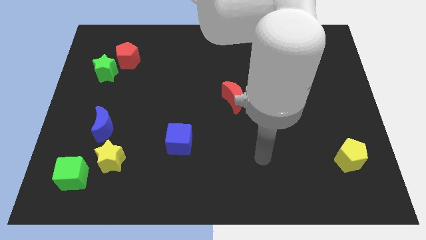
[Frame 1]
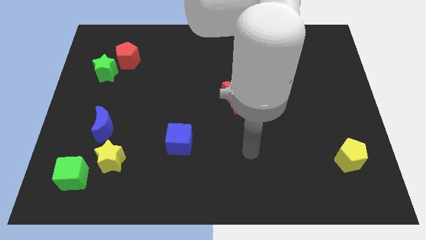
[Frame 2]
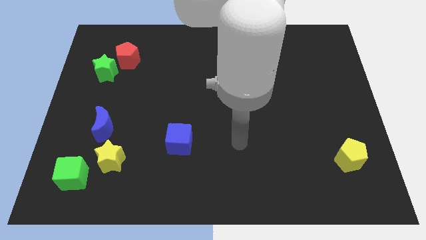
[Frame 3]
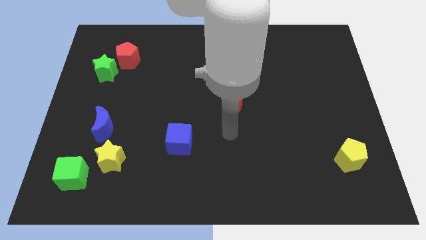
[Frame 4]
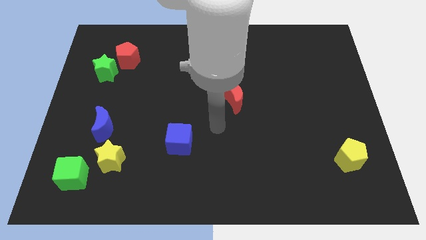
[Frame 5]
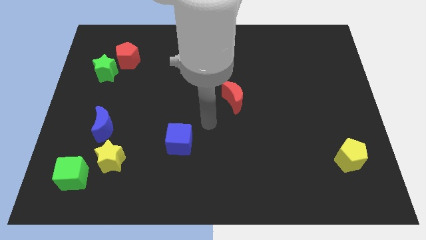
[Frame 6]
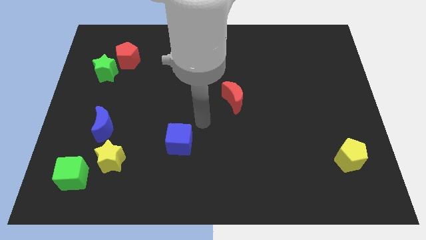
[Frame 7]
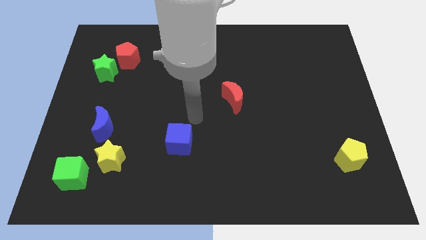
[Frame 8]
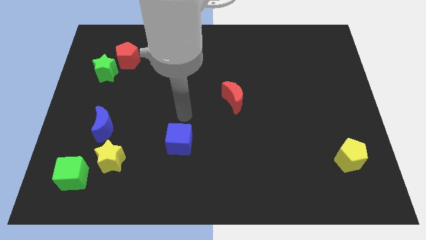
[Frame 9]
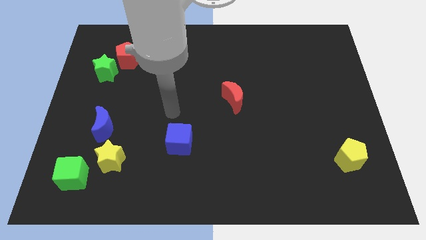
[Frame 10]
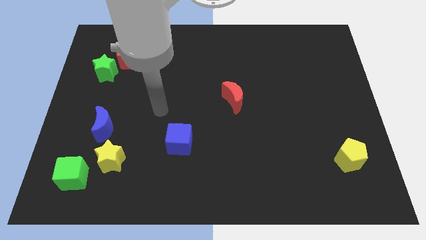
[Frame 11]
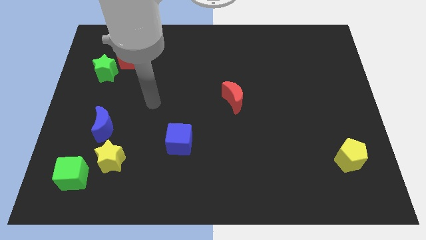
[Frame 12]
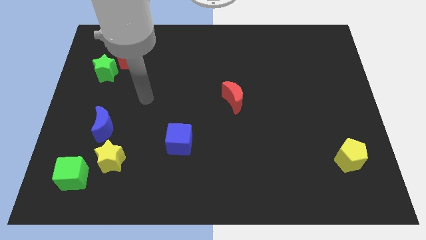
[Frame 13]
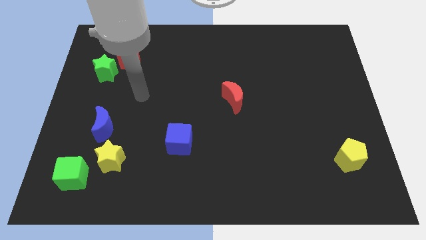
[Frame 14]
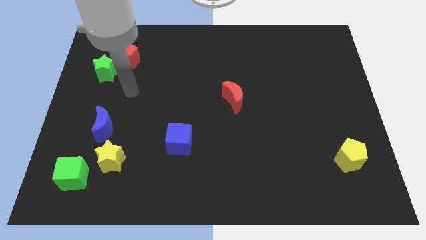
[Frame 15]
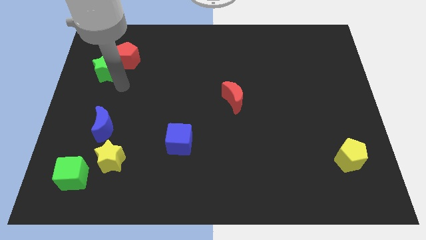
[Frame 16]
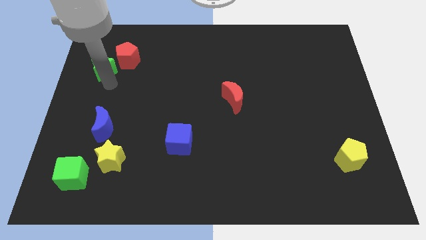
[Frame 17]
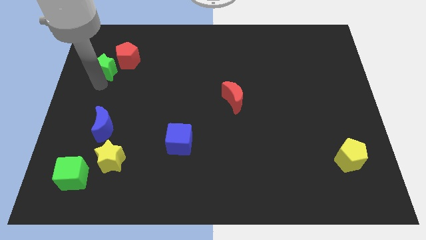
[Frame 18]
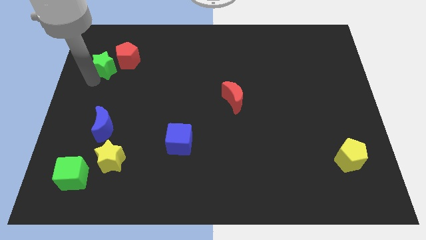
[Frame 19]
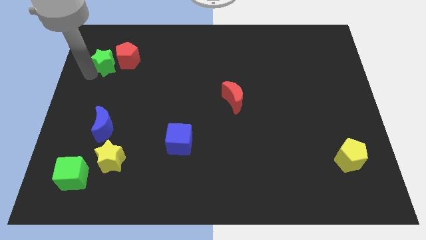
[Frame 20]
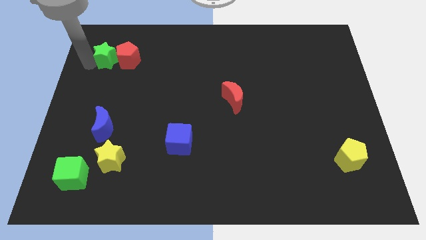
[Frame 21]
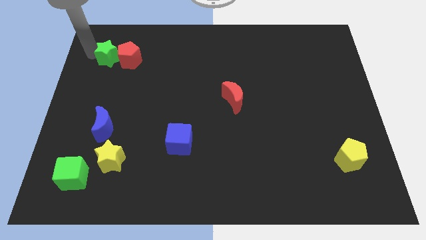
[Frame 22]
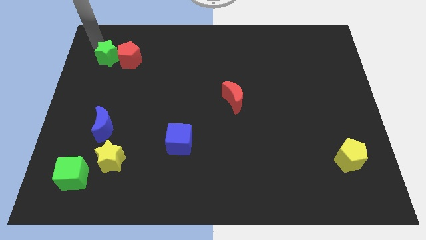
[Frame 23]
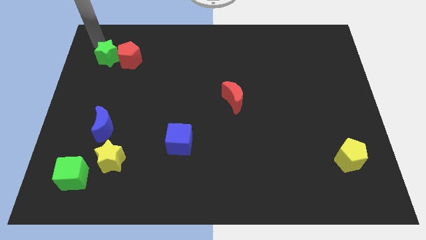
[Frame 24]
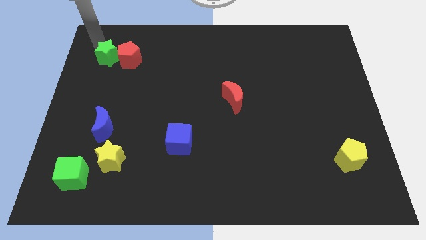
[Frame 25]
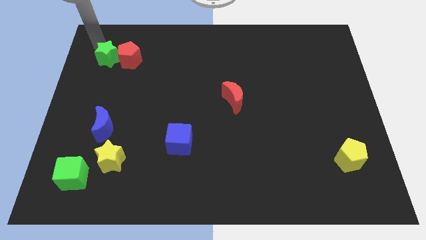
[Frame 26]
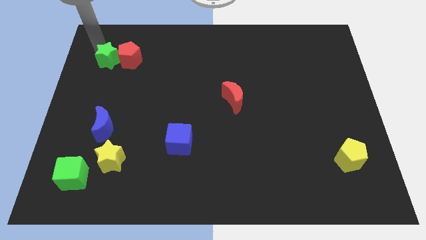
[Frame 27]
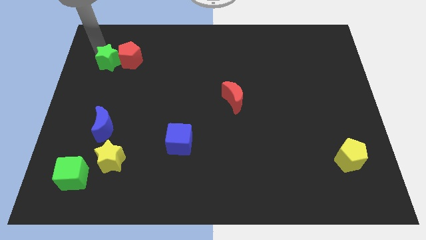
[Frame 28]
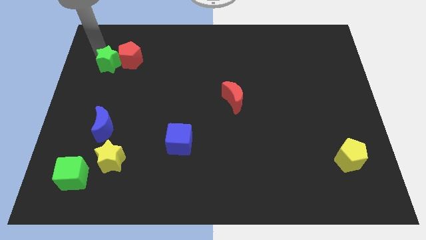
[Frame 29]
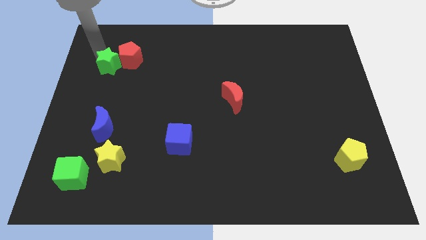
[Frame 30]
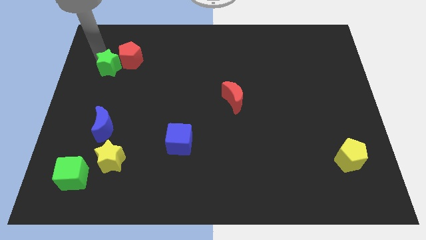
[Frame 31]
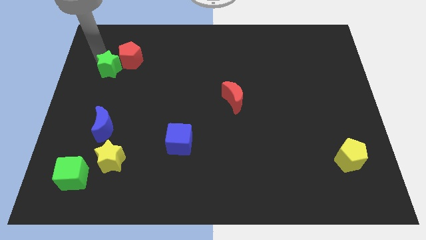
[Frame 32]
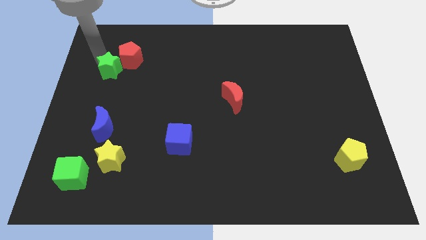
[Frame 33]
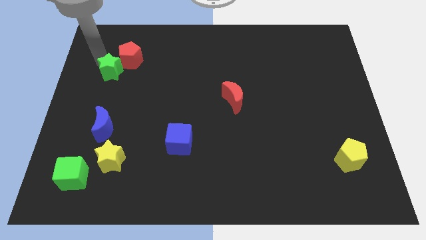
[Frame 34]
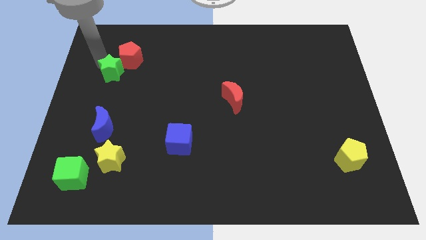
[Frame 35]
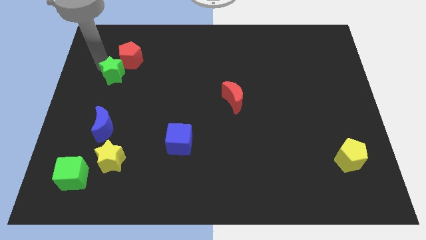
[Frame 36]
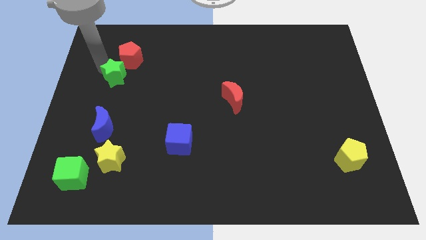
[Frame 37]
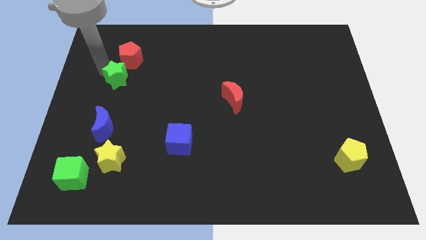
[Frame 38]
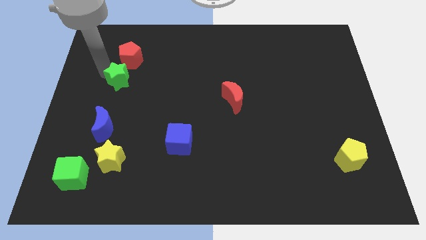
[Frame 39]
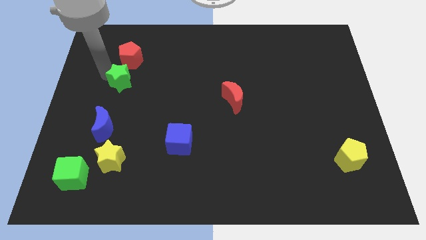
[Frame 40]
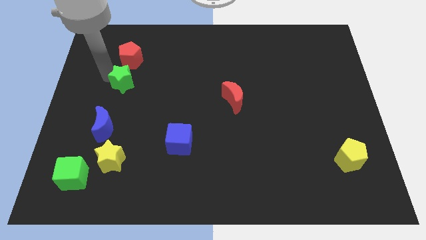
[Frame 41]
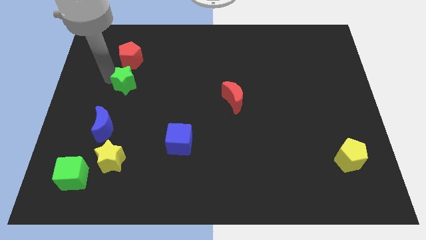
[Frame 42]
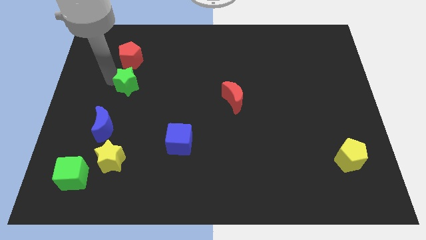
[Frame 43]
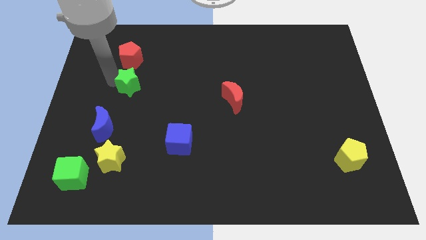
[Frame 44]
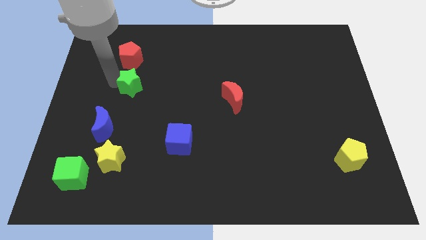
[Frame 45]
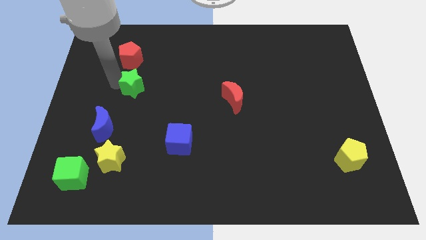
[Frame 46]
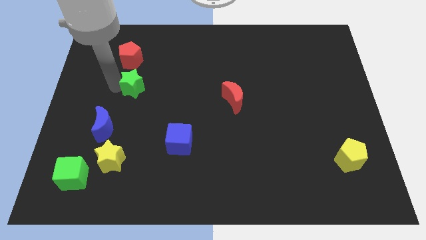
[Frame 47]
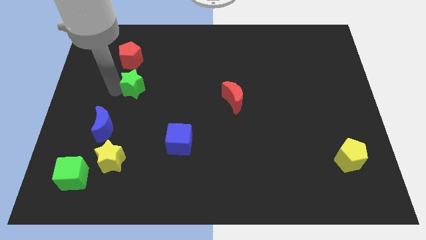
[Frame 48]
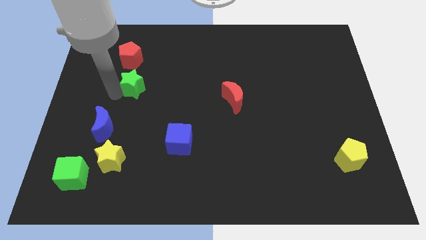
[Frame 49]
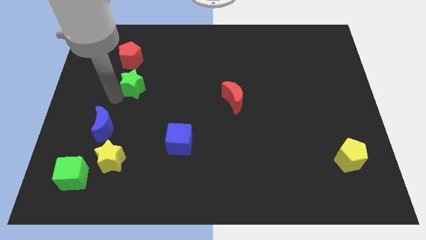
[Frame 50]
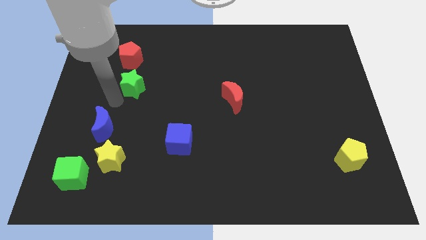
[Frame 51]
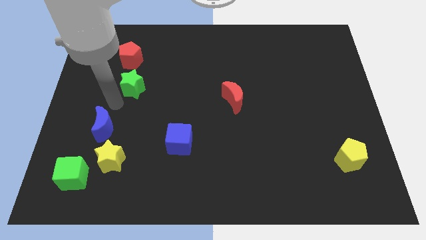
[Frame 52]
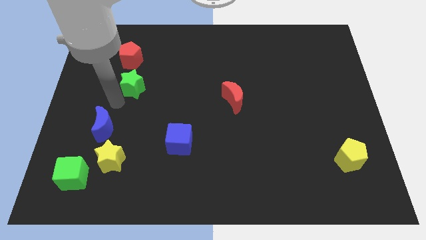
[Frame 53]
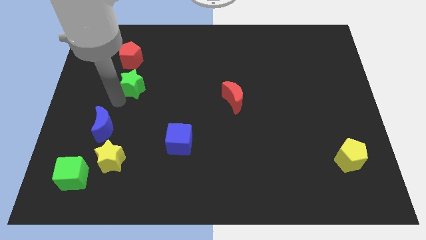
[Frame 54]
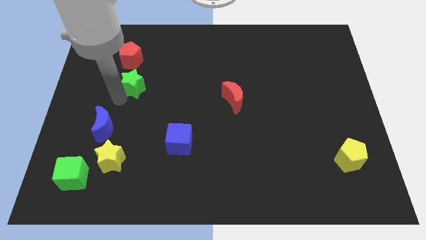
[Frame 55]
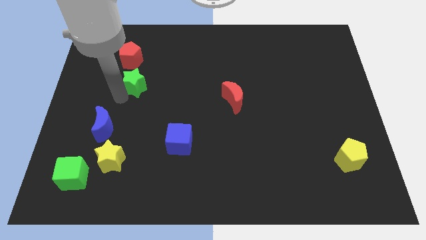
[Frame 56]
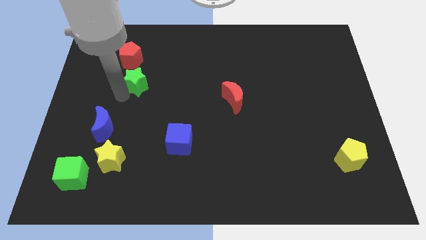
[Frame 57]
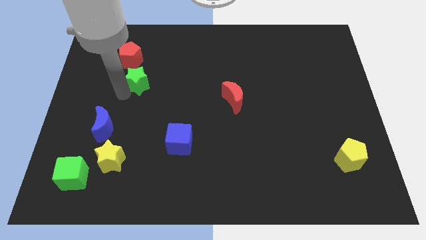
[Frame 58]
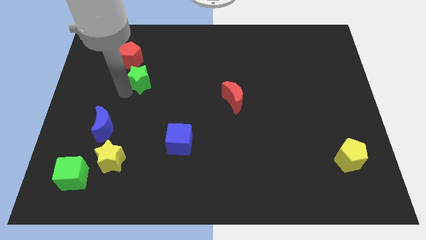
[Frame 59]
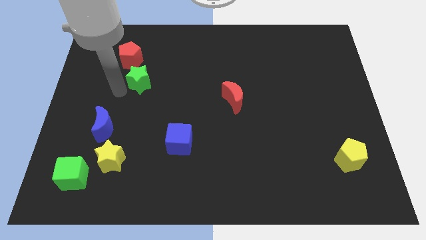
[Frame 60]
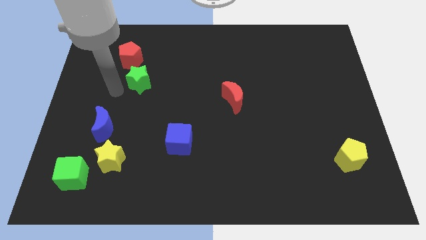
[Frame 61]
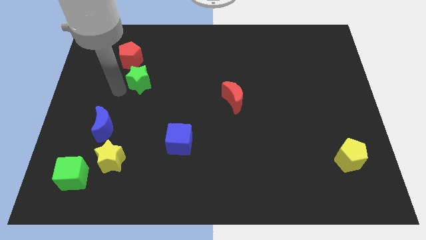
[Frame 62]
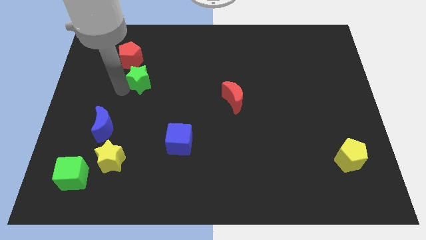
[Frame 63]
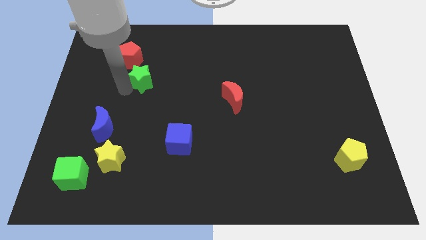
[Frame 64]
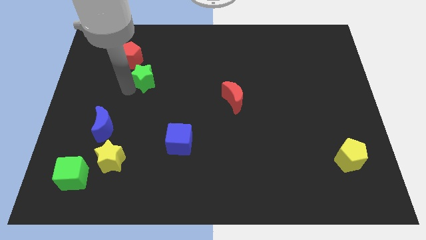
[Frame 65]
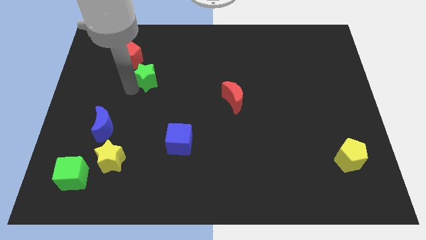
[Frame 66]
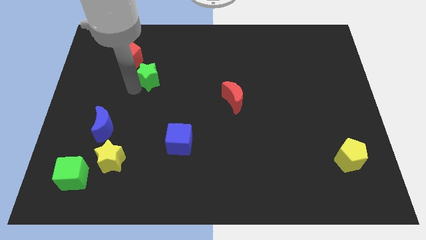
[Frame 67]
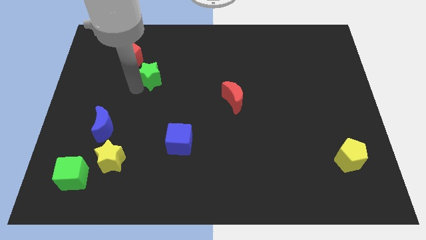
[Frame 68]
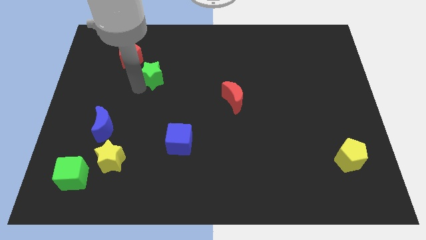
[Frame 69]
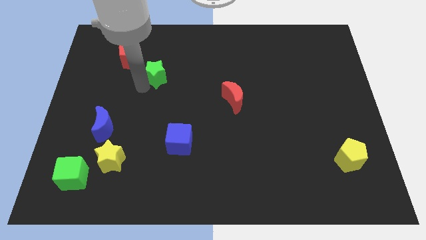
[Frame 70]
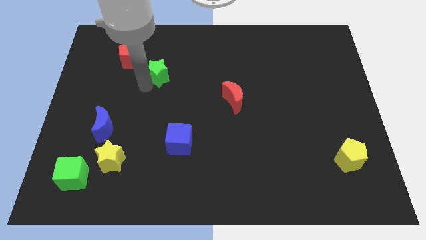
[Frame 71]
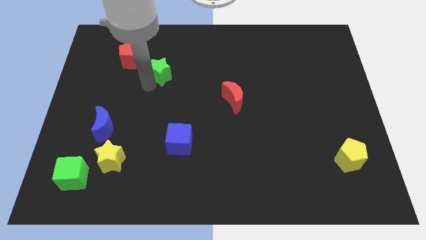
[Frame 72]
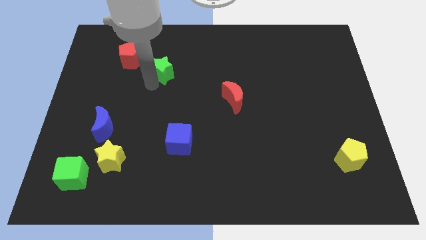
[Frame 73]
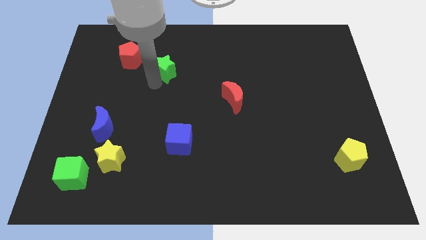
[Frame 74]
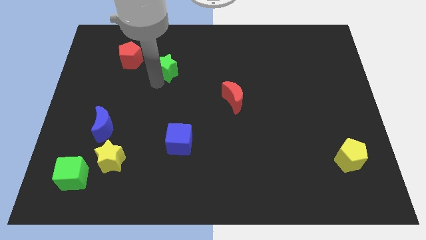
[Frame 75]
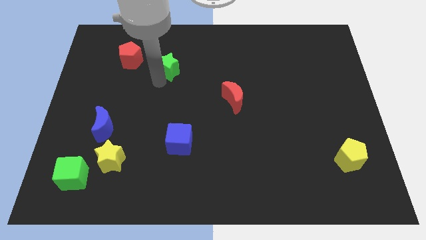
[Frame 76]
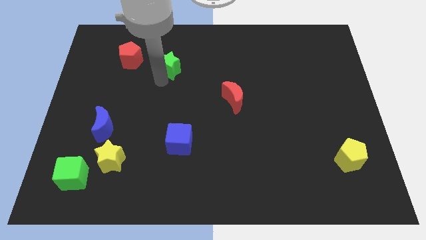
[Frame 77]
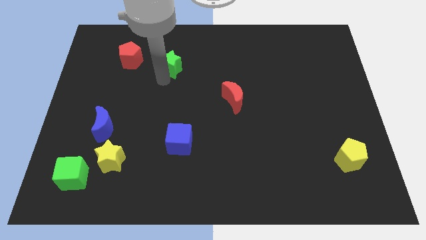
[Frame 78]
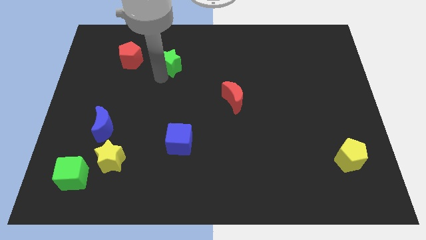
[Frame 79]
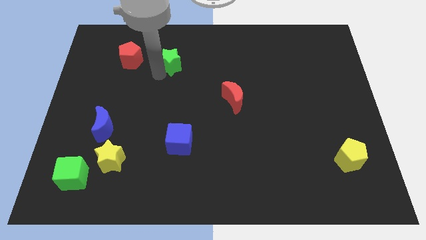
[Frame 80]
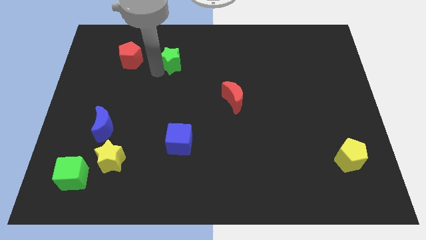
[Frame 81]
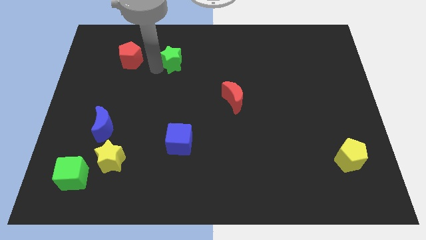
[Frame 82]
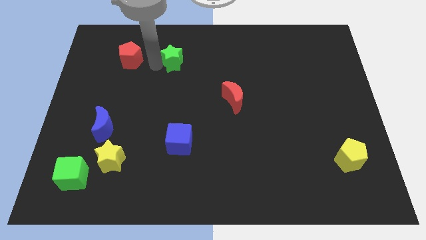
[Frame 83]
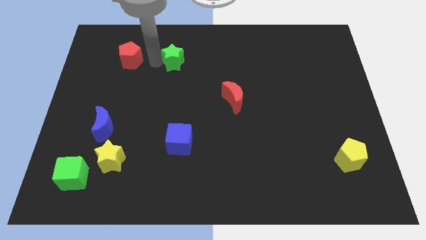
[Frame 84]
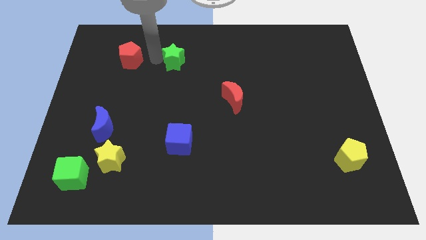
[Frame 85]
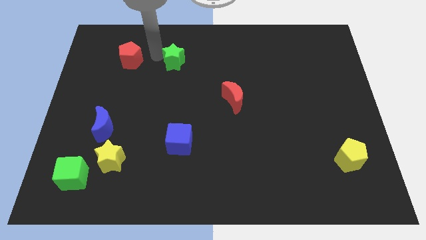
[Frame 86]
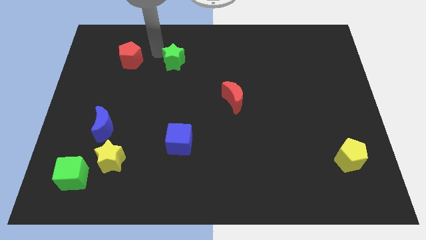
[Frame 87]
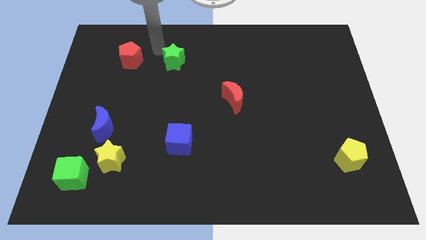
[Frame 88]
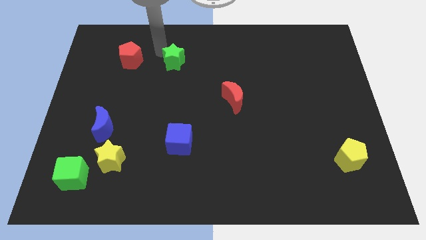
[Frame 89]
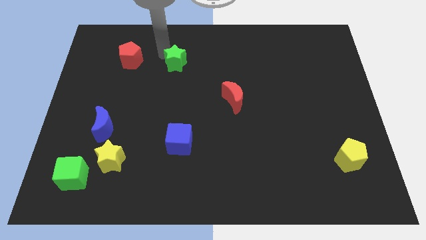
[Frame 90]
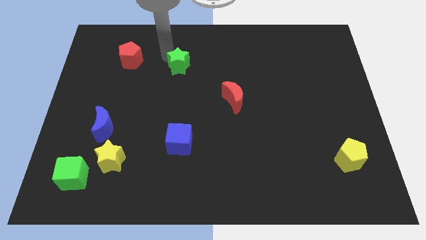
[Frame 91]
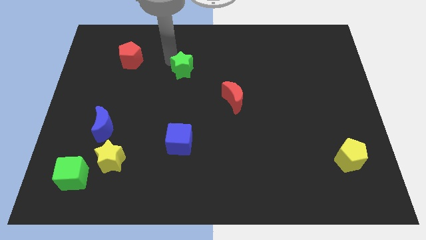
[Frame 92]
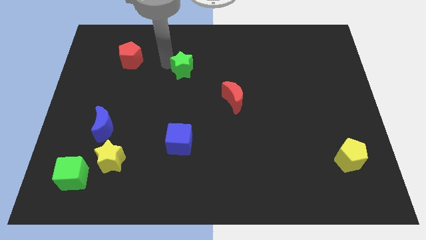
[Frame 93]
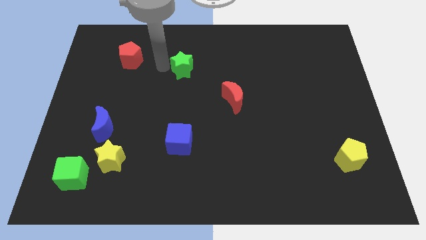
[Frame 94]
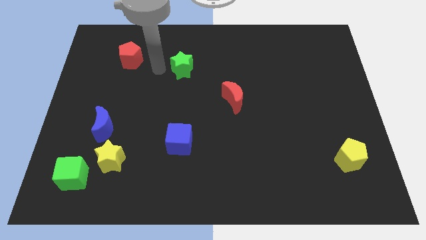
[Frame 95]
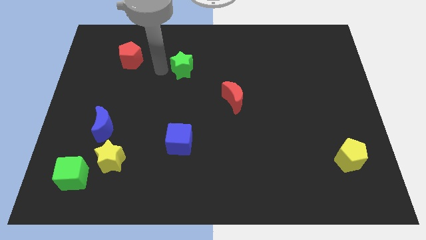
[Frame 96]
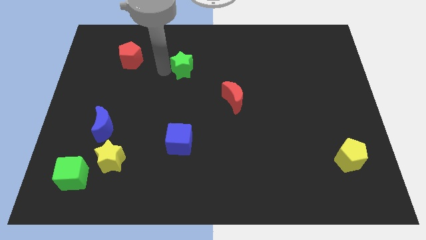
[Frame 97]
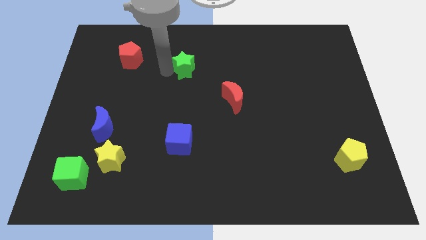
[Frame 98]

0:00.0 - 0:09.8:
slide the green star right
